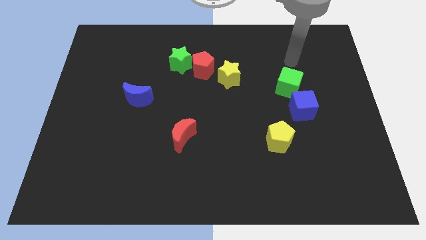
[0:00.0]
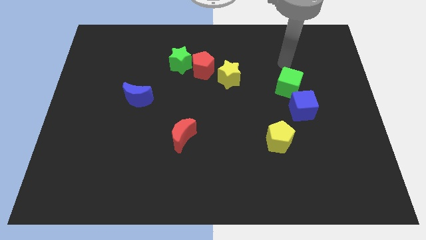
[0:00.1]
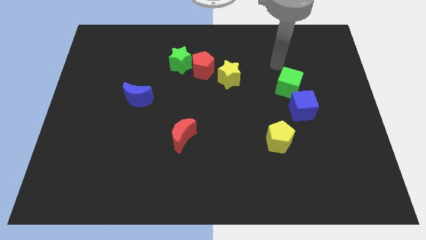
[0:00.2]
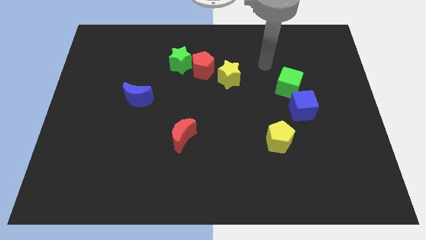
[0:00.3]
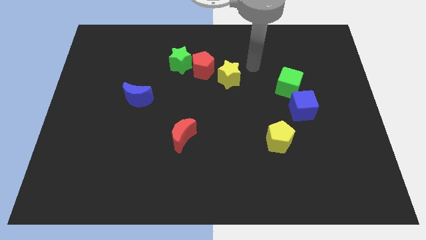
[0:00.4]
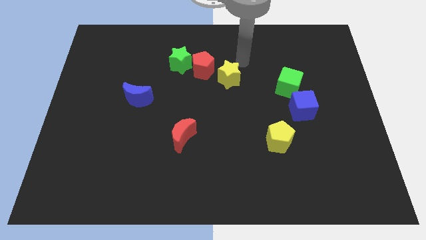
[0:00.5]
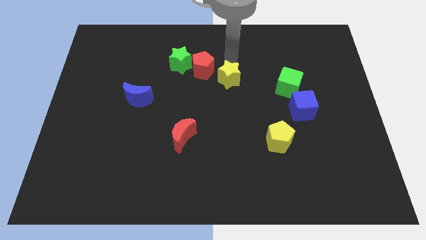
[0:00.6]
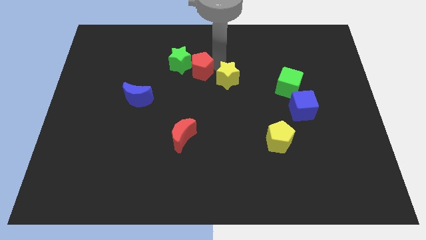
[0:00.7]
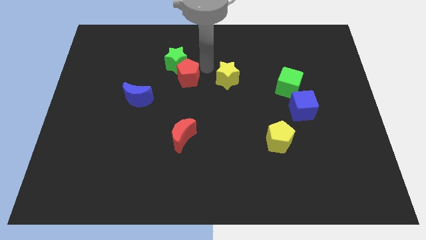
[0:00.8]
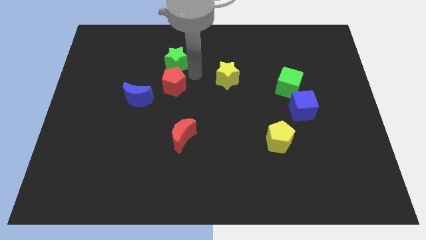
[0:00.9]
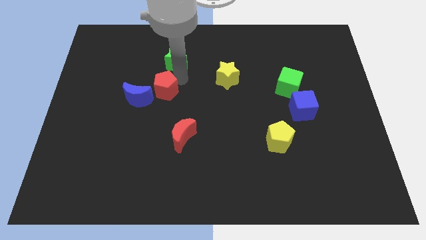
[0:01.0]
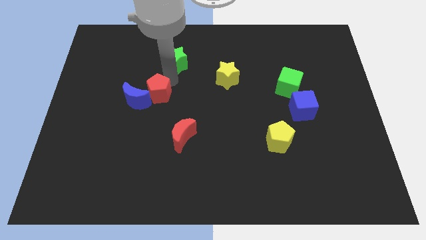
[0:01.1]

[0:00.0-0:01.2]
separate the green star from the red pentagon

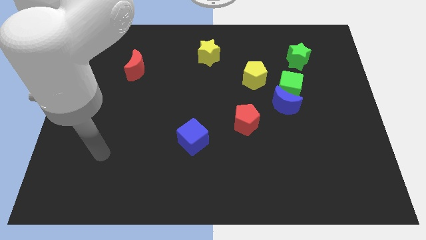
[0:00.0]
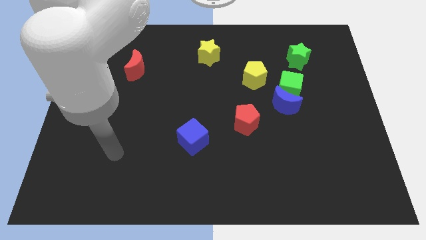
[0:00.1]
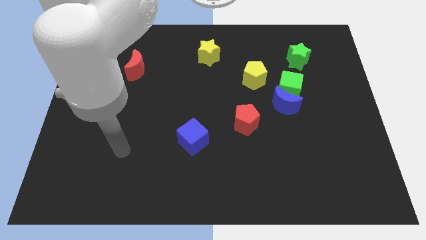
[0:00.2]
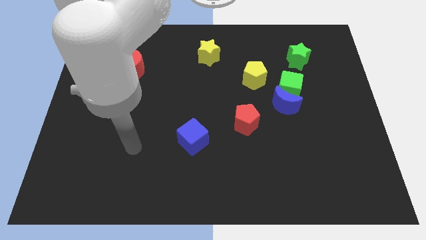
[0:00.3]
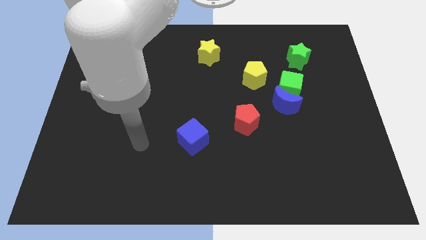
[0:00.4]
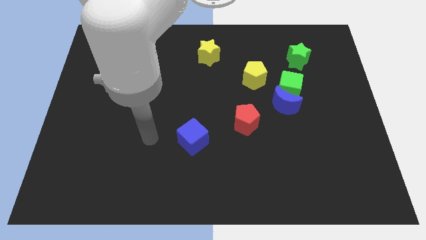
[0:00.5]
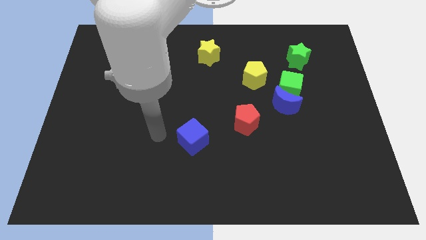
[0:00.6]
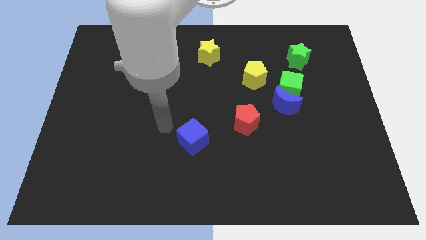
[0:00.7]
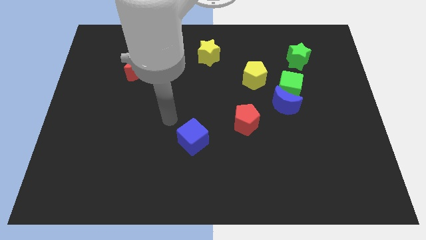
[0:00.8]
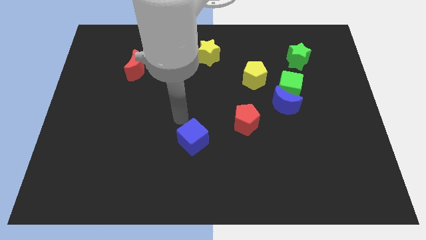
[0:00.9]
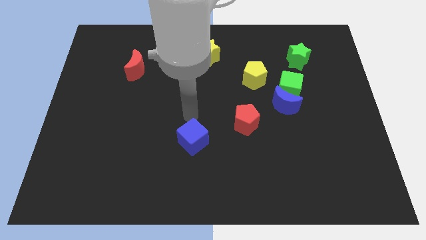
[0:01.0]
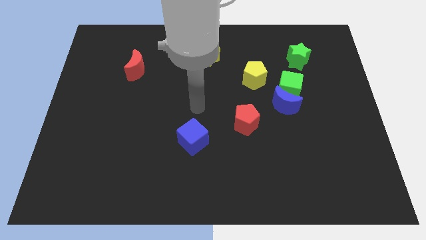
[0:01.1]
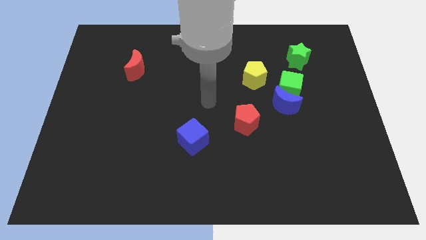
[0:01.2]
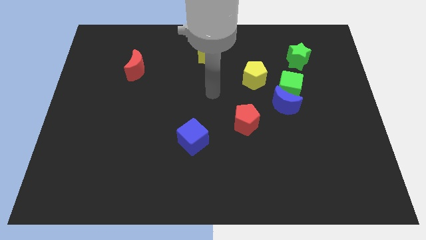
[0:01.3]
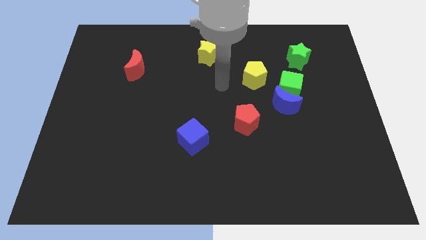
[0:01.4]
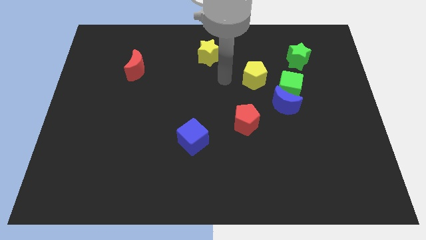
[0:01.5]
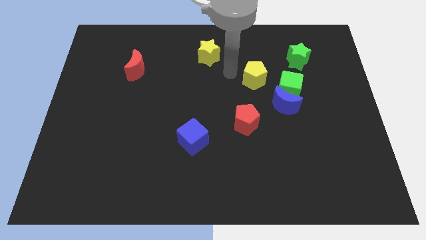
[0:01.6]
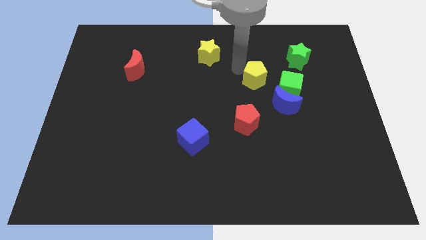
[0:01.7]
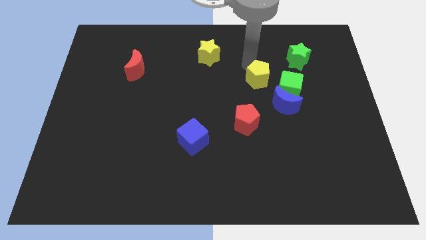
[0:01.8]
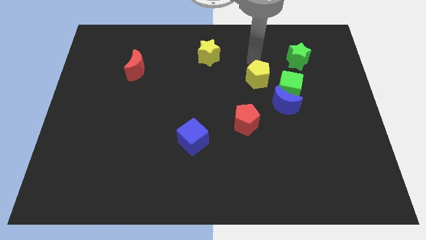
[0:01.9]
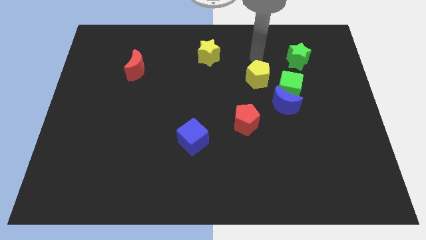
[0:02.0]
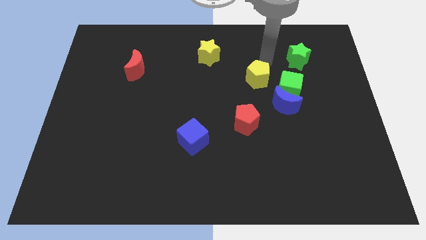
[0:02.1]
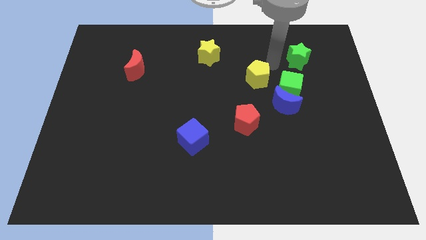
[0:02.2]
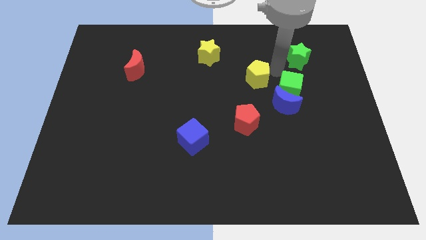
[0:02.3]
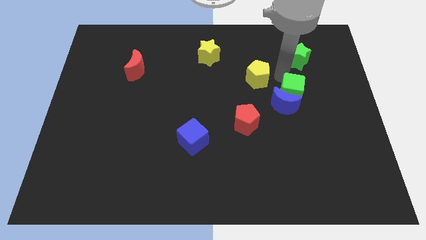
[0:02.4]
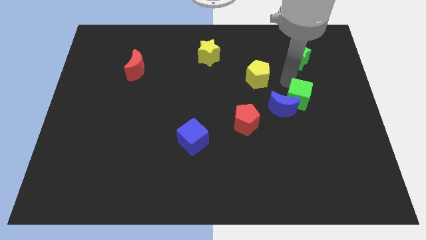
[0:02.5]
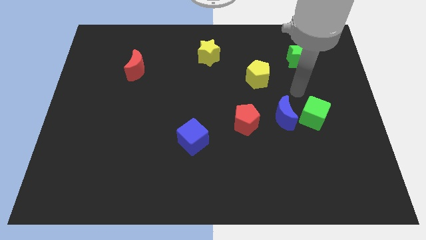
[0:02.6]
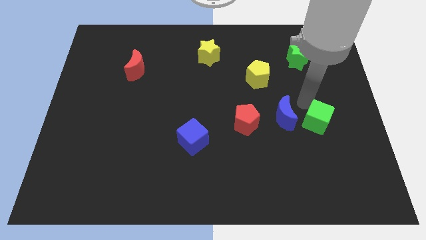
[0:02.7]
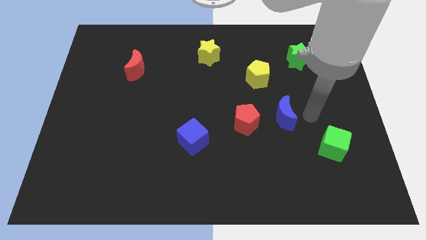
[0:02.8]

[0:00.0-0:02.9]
separate the blue moon from the green cube

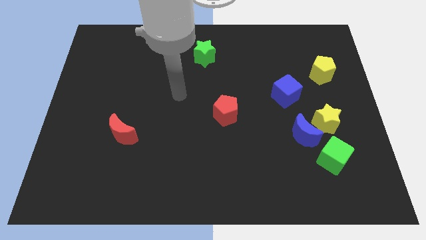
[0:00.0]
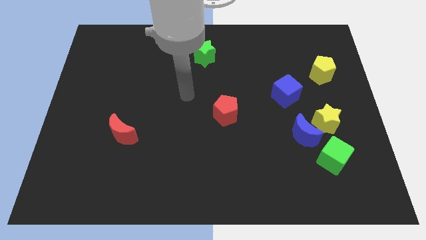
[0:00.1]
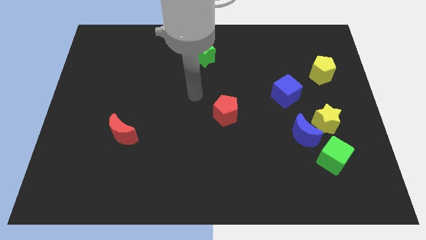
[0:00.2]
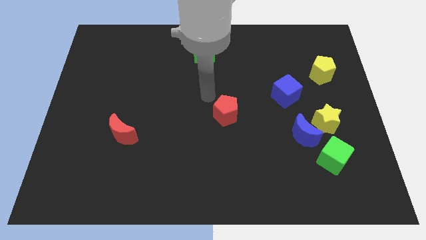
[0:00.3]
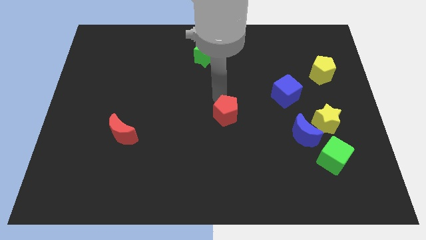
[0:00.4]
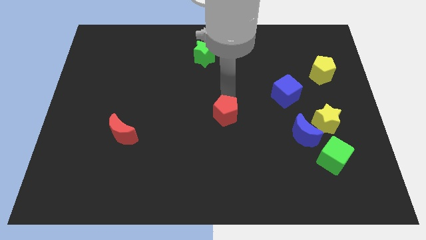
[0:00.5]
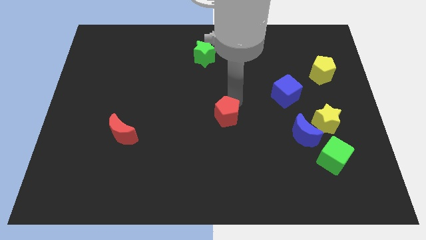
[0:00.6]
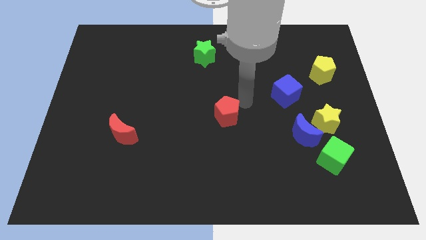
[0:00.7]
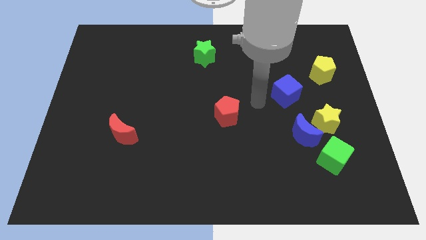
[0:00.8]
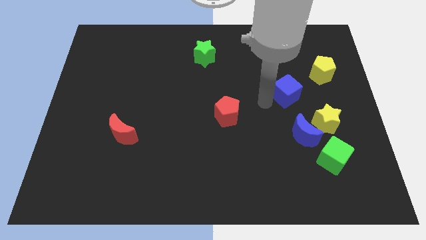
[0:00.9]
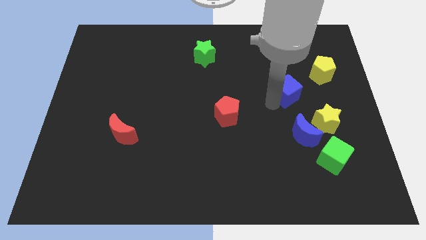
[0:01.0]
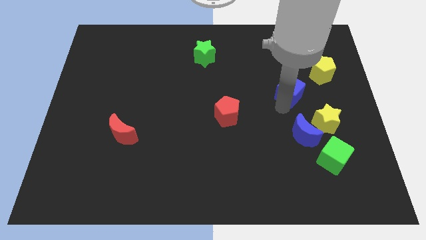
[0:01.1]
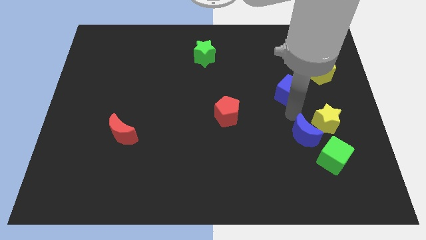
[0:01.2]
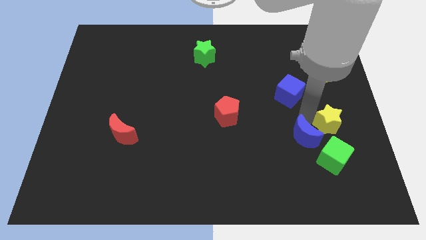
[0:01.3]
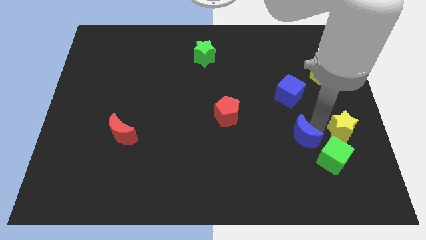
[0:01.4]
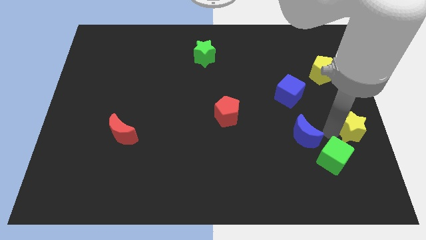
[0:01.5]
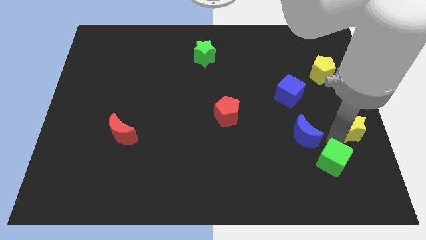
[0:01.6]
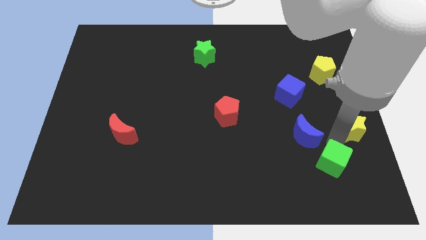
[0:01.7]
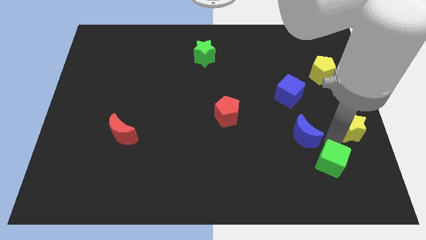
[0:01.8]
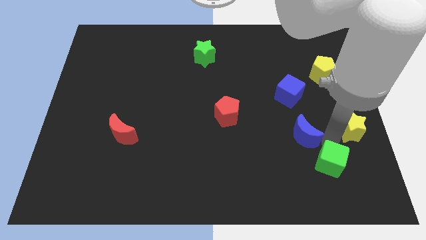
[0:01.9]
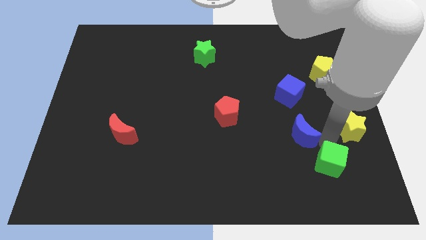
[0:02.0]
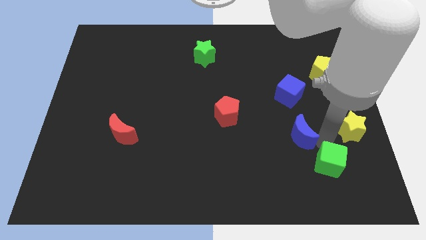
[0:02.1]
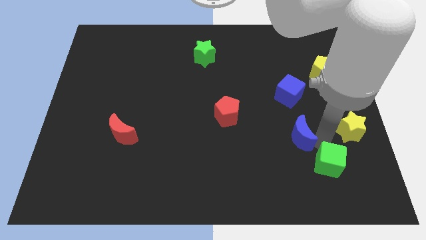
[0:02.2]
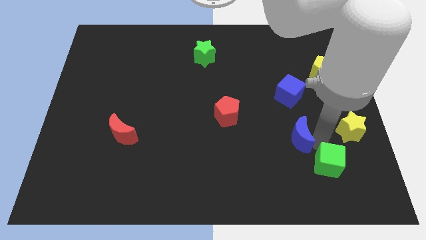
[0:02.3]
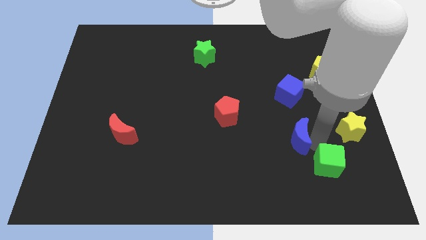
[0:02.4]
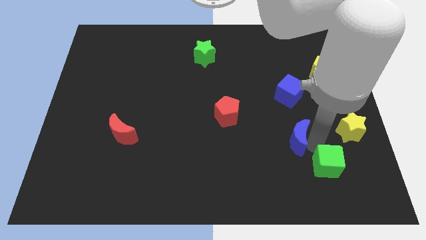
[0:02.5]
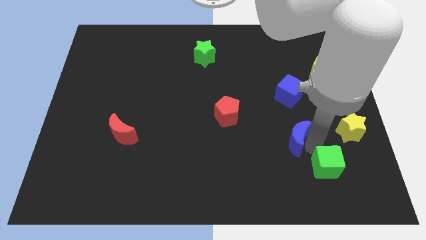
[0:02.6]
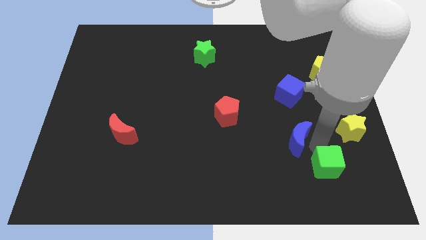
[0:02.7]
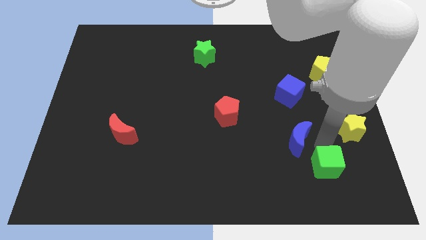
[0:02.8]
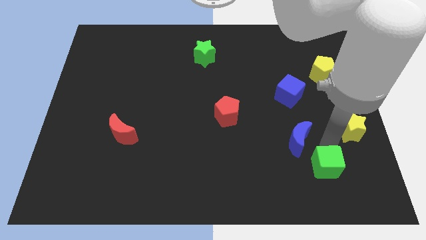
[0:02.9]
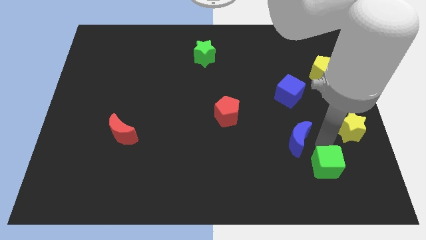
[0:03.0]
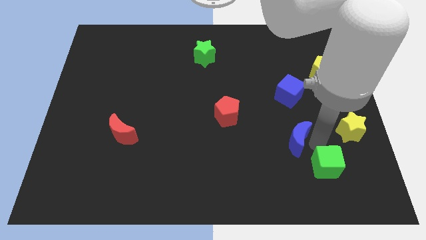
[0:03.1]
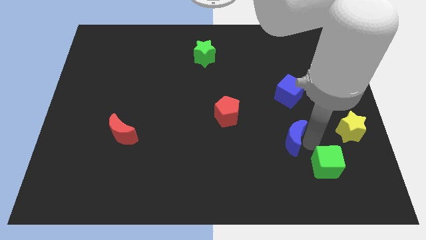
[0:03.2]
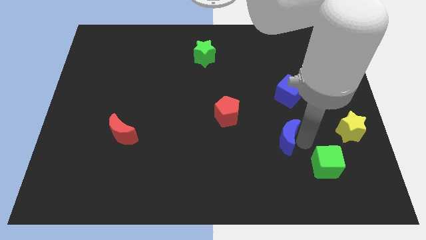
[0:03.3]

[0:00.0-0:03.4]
separate the blue moon from the yellow star and green cube

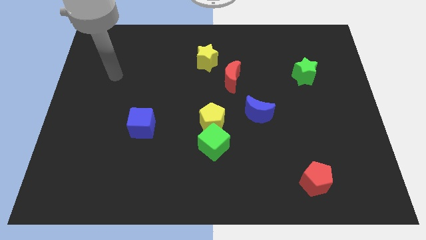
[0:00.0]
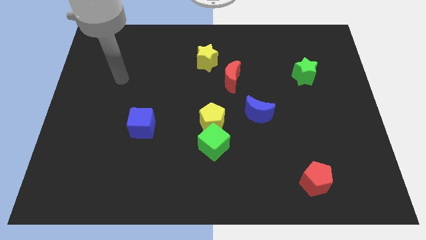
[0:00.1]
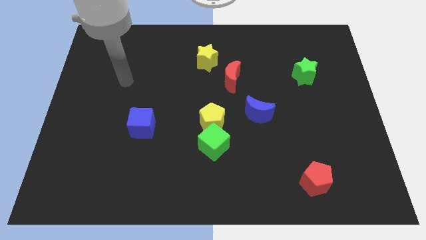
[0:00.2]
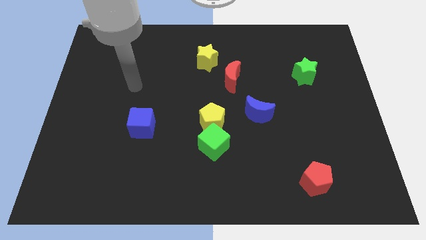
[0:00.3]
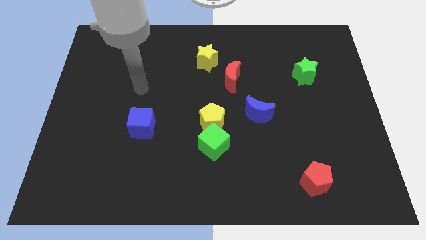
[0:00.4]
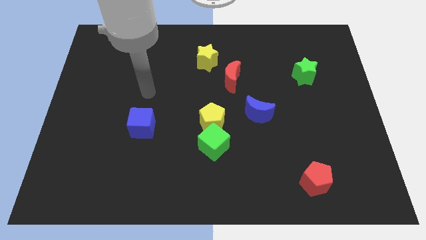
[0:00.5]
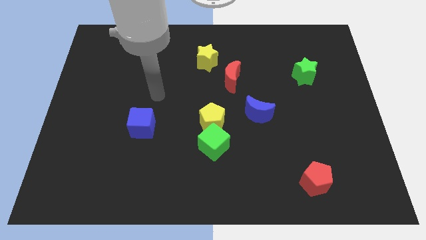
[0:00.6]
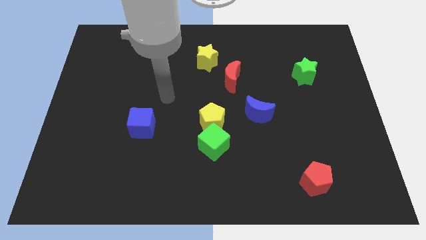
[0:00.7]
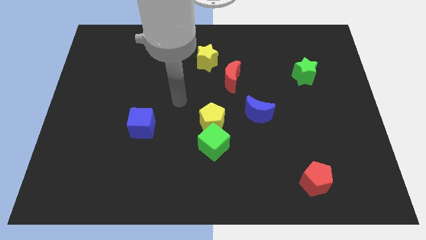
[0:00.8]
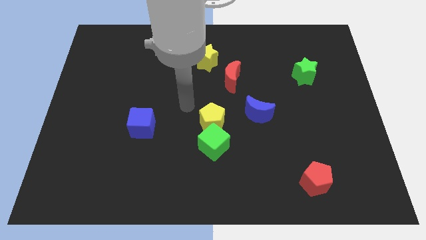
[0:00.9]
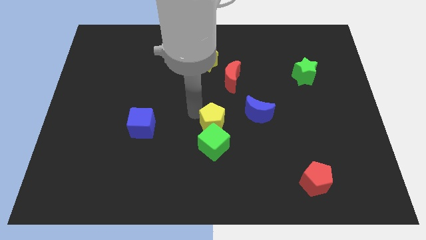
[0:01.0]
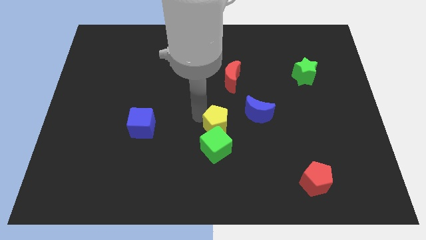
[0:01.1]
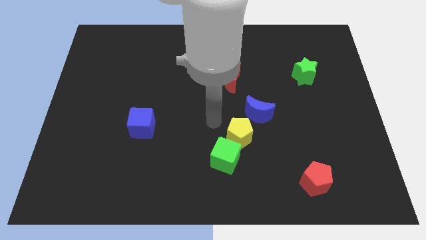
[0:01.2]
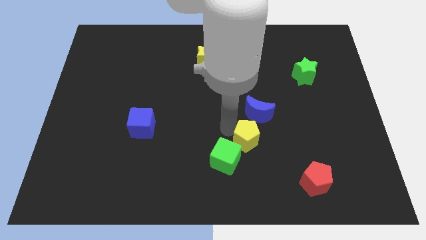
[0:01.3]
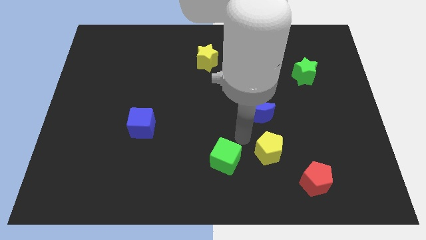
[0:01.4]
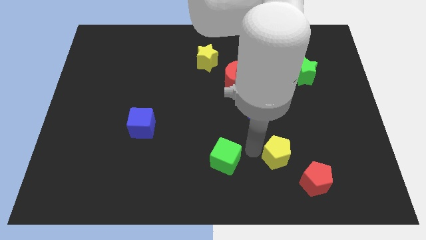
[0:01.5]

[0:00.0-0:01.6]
pull the green cube apart from the yellow pentagon

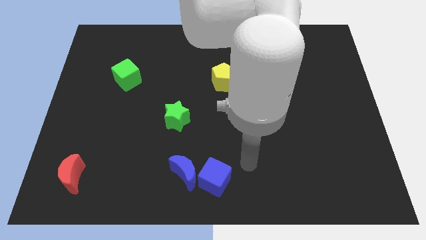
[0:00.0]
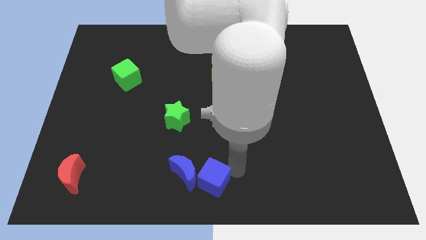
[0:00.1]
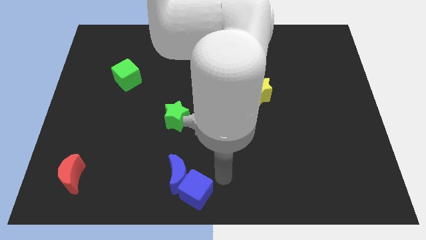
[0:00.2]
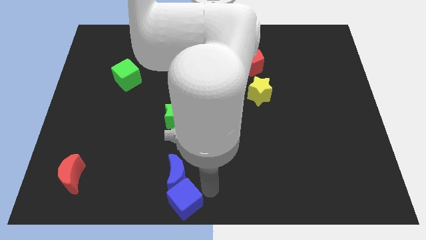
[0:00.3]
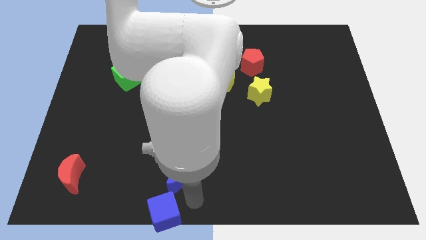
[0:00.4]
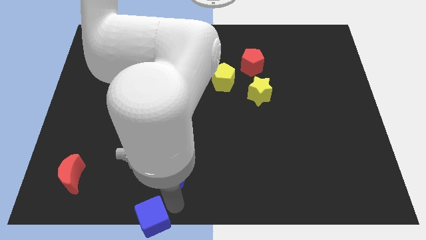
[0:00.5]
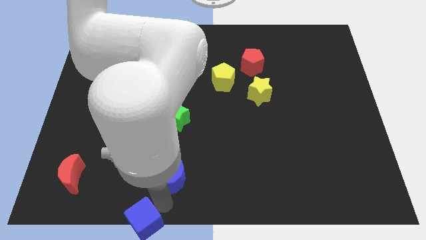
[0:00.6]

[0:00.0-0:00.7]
move the blue moon away from the blue cube
